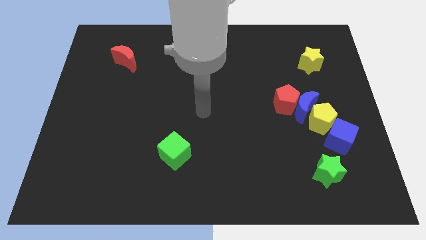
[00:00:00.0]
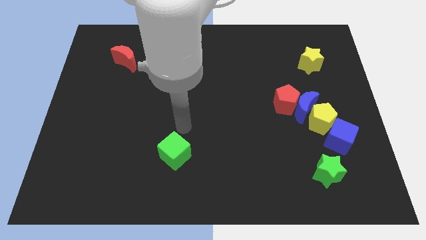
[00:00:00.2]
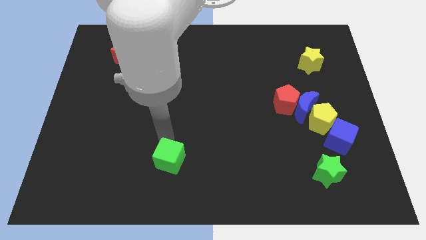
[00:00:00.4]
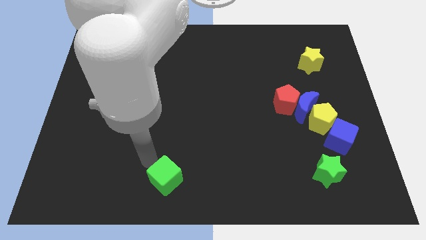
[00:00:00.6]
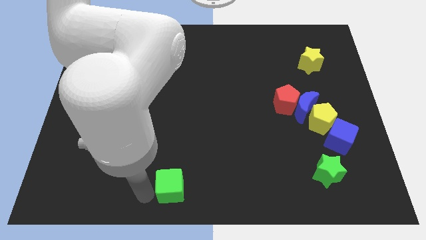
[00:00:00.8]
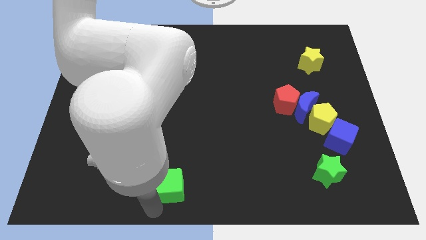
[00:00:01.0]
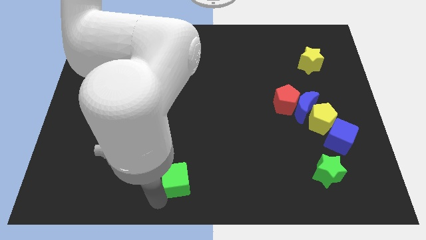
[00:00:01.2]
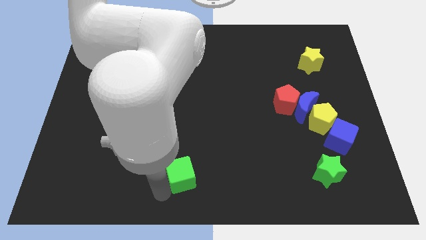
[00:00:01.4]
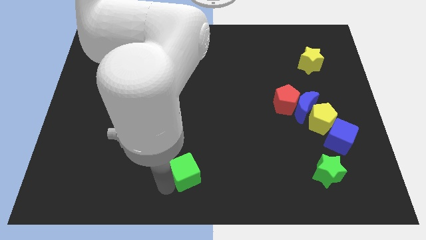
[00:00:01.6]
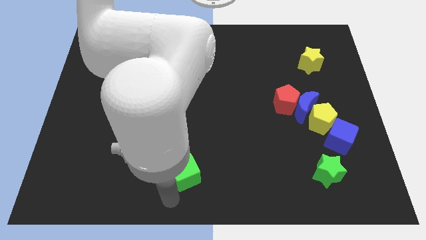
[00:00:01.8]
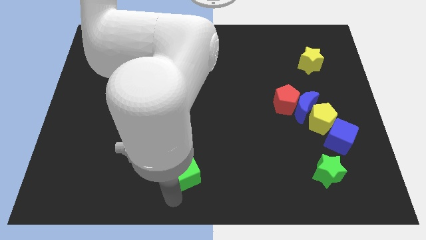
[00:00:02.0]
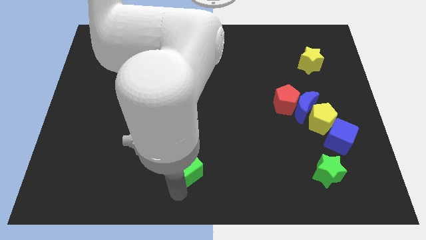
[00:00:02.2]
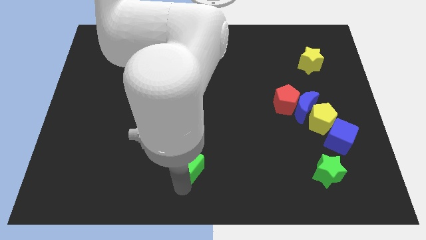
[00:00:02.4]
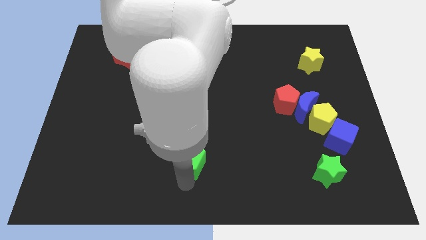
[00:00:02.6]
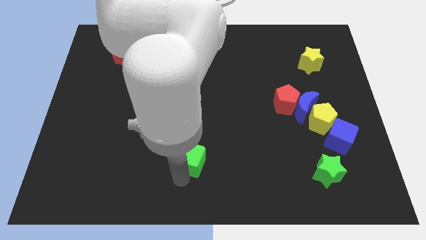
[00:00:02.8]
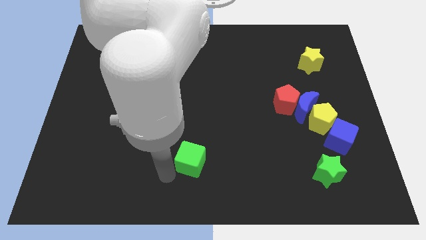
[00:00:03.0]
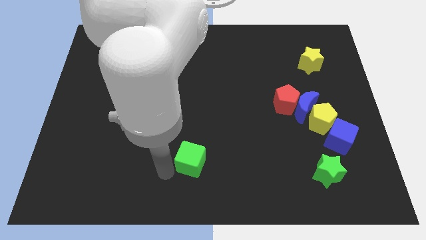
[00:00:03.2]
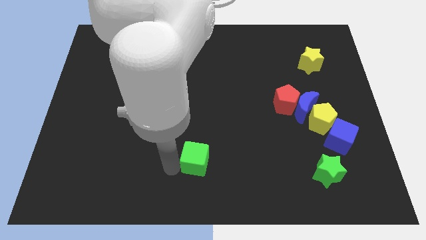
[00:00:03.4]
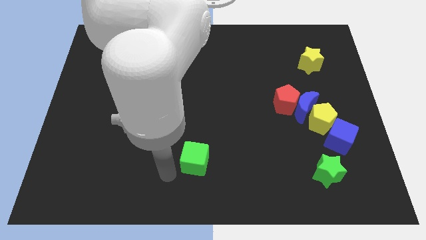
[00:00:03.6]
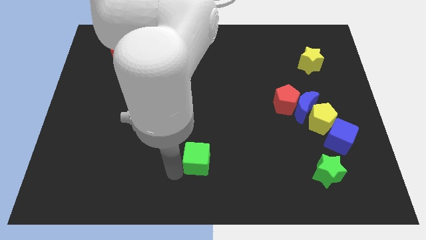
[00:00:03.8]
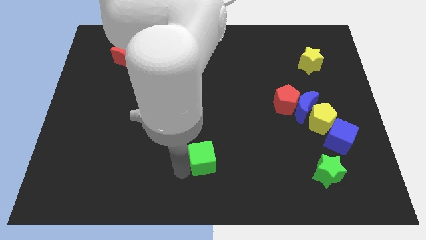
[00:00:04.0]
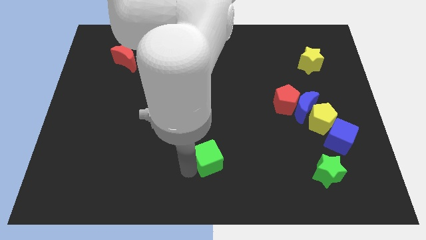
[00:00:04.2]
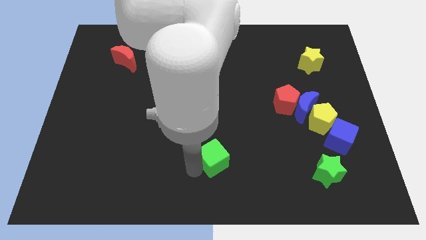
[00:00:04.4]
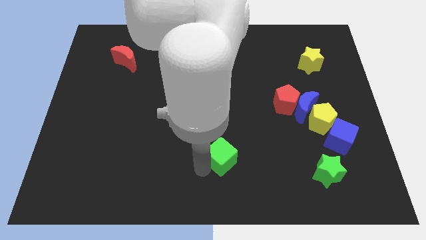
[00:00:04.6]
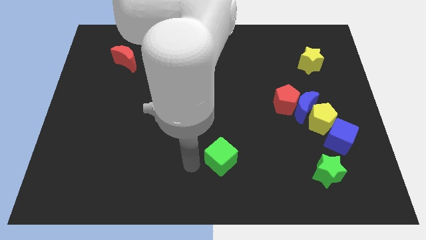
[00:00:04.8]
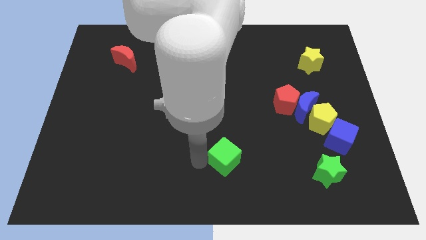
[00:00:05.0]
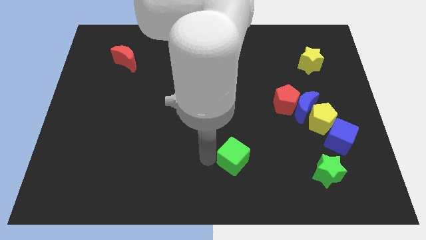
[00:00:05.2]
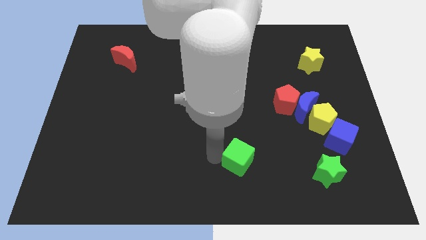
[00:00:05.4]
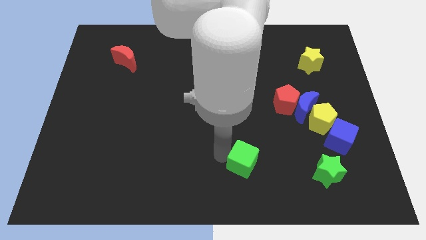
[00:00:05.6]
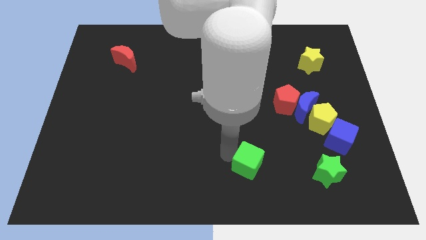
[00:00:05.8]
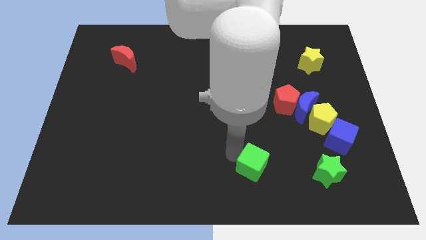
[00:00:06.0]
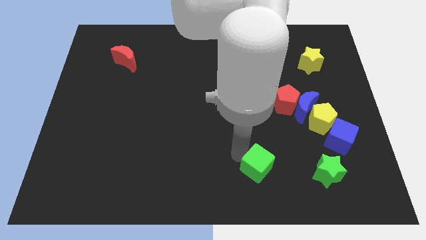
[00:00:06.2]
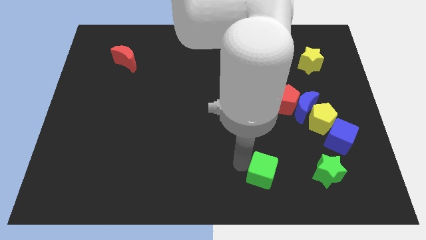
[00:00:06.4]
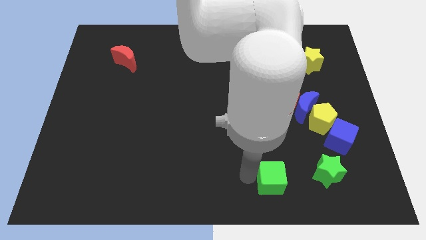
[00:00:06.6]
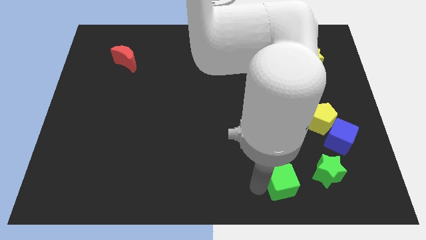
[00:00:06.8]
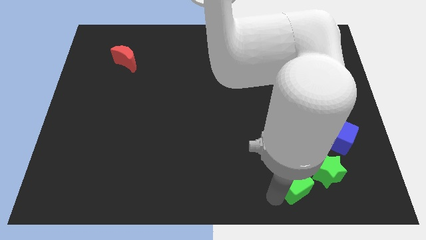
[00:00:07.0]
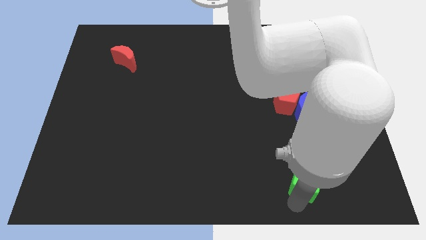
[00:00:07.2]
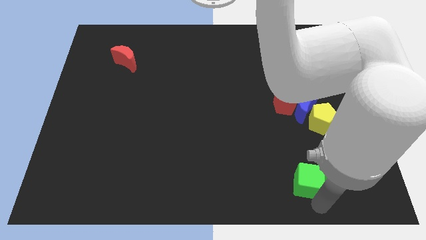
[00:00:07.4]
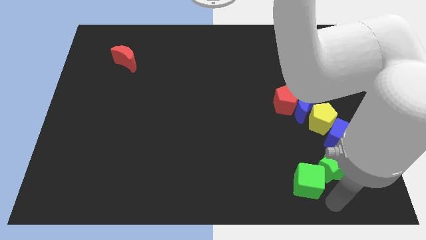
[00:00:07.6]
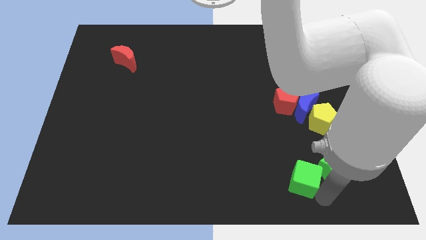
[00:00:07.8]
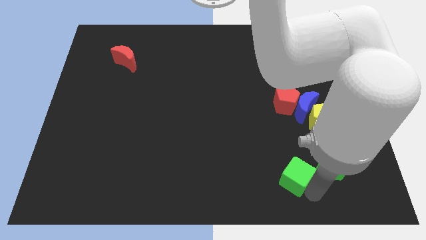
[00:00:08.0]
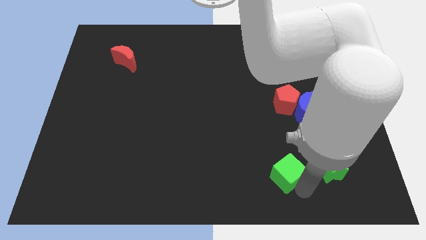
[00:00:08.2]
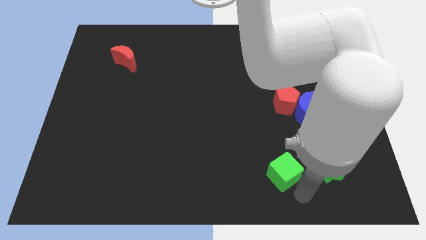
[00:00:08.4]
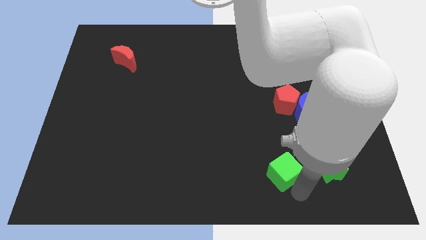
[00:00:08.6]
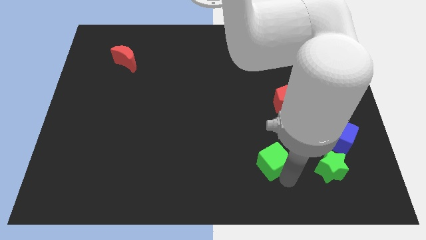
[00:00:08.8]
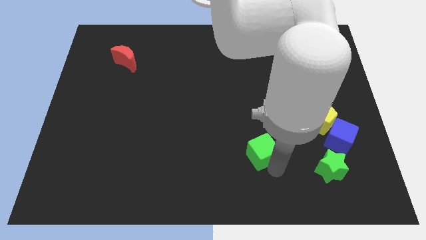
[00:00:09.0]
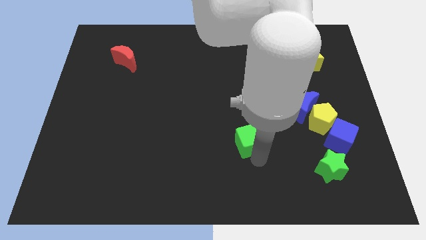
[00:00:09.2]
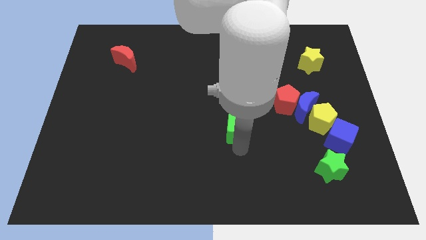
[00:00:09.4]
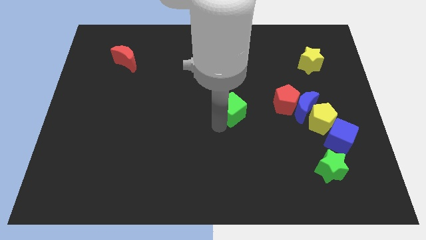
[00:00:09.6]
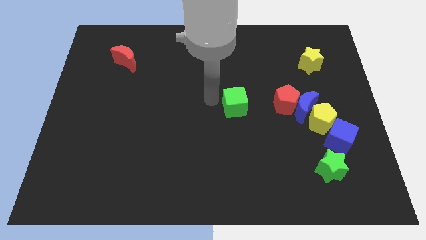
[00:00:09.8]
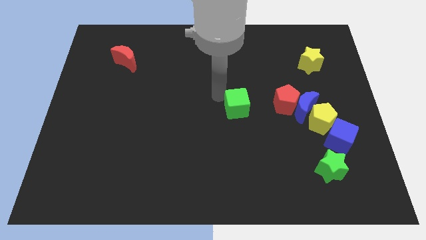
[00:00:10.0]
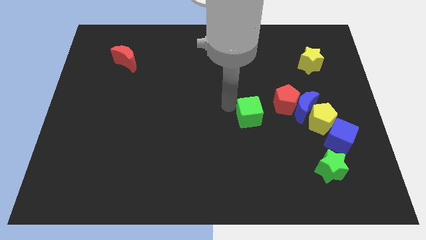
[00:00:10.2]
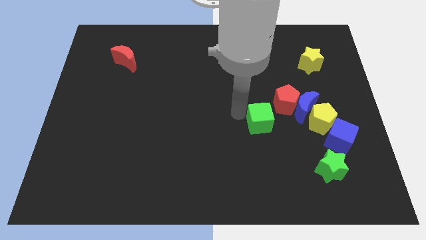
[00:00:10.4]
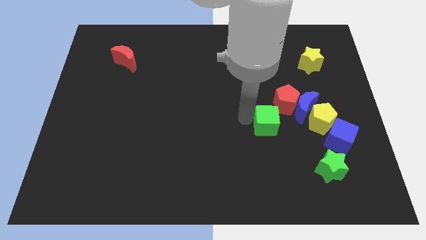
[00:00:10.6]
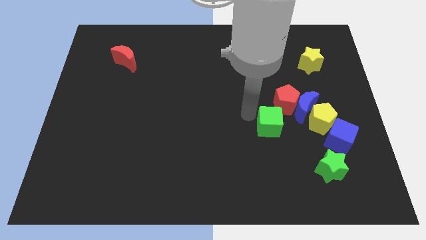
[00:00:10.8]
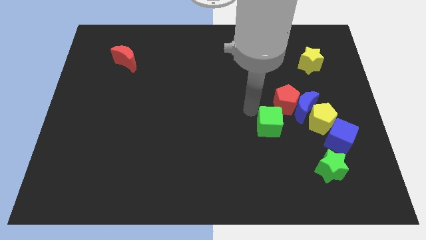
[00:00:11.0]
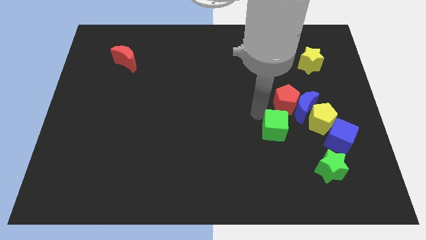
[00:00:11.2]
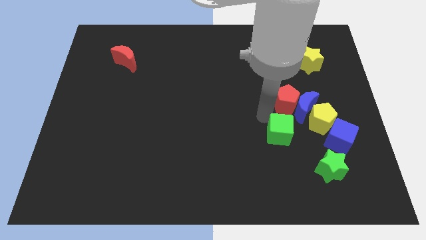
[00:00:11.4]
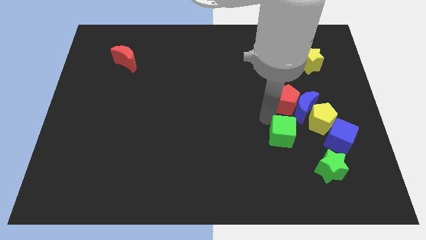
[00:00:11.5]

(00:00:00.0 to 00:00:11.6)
move the green cube to the top left of the green star

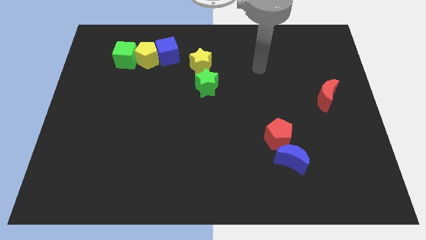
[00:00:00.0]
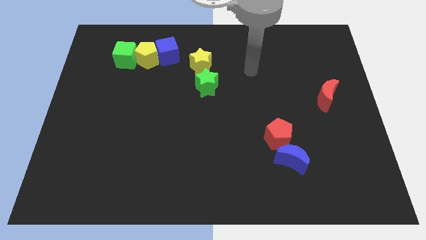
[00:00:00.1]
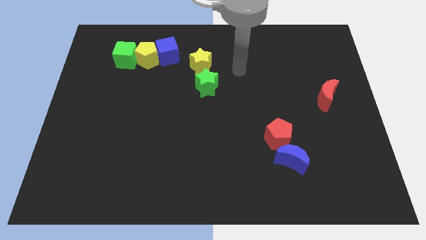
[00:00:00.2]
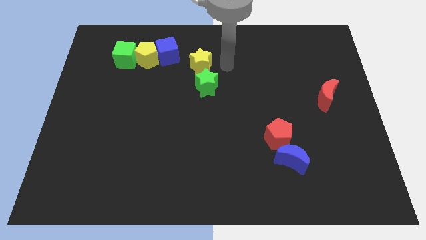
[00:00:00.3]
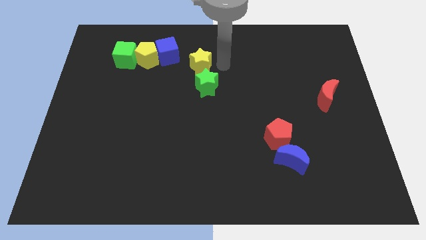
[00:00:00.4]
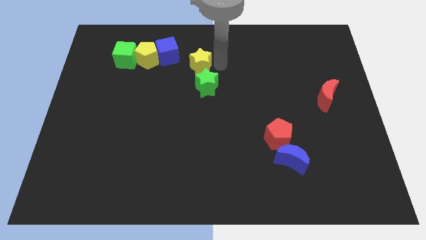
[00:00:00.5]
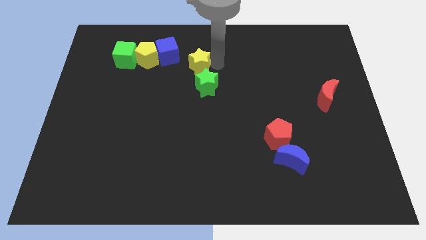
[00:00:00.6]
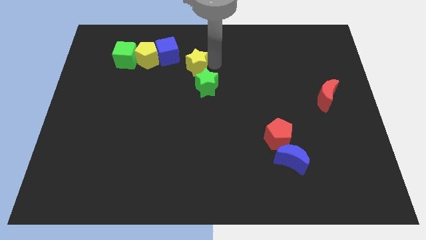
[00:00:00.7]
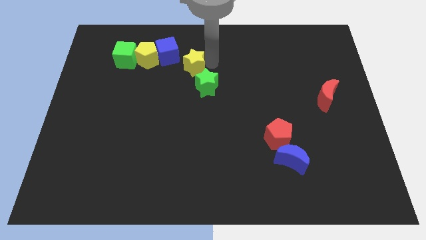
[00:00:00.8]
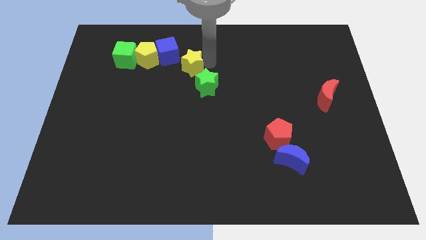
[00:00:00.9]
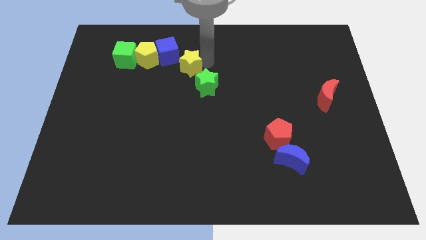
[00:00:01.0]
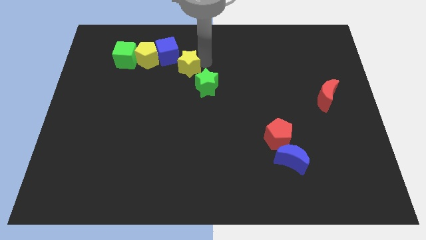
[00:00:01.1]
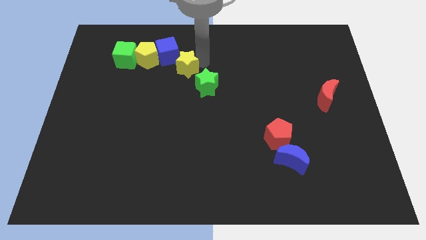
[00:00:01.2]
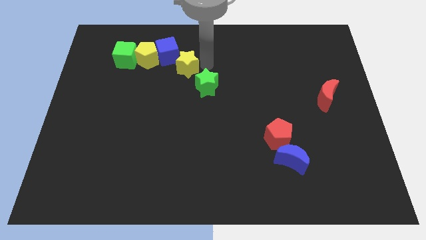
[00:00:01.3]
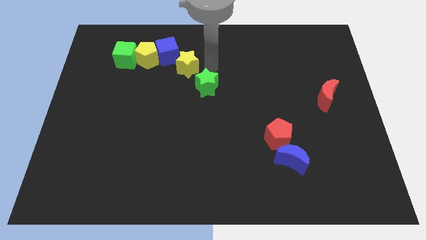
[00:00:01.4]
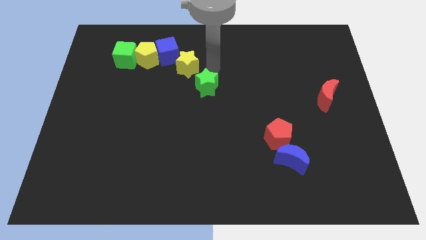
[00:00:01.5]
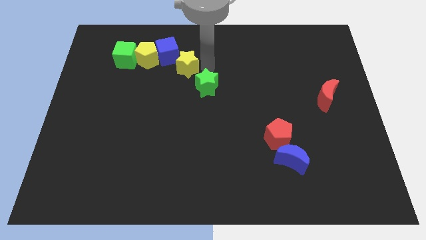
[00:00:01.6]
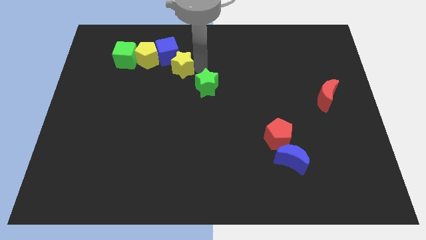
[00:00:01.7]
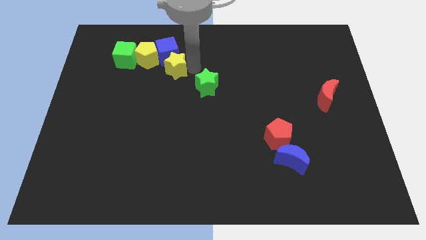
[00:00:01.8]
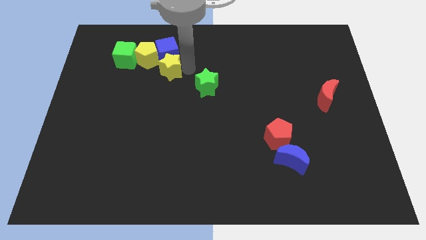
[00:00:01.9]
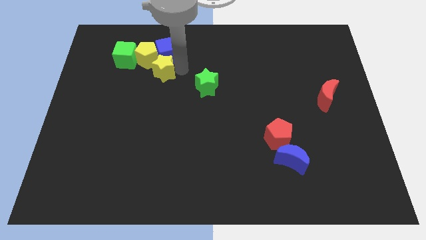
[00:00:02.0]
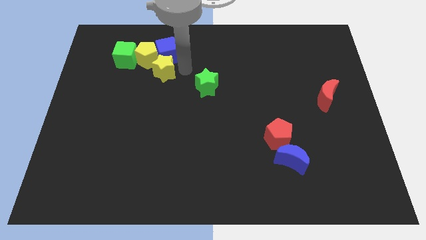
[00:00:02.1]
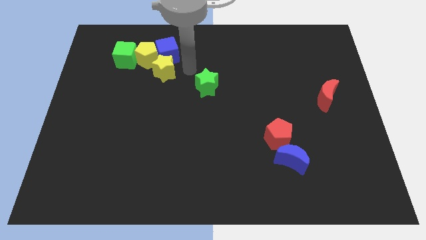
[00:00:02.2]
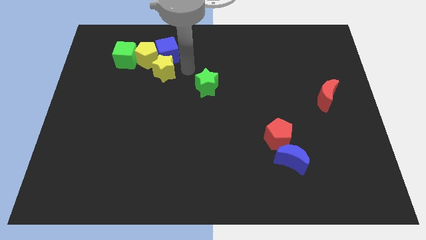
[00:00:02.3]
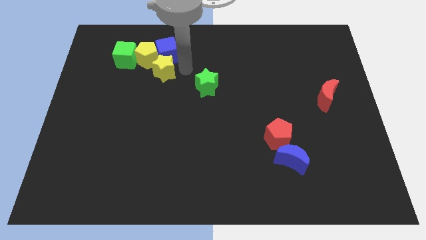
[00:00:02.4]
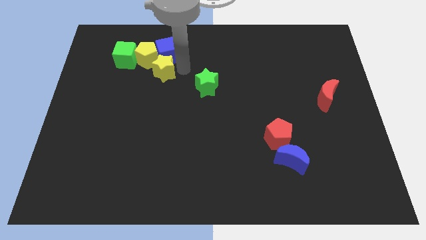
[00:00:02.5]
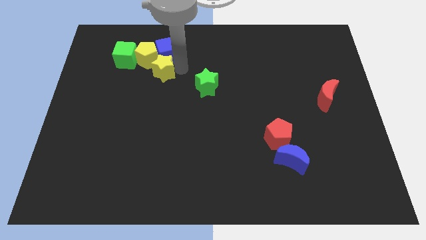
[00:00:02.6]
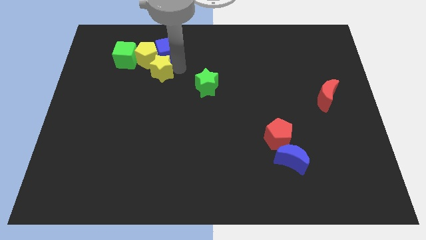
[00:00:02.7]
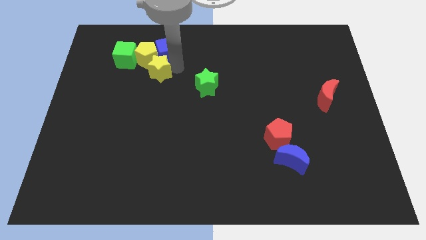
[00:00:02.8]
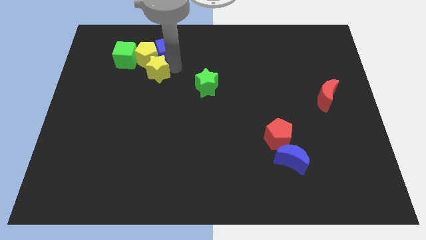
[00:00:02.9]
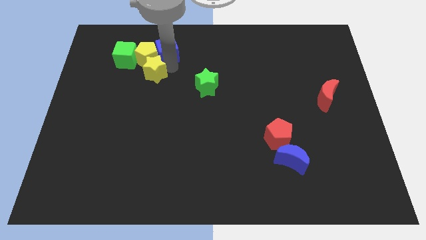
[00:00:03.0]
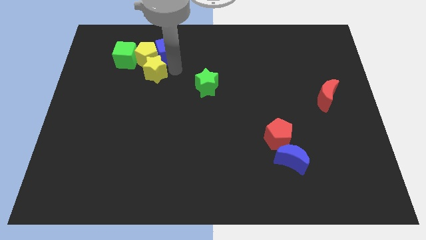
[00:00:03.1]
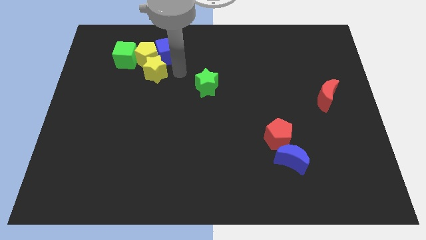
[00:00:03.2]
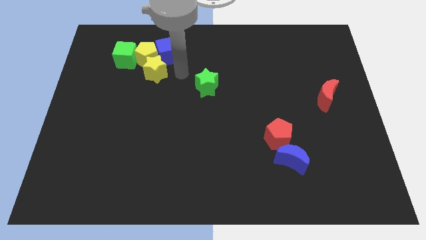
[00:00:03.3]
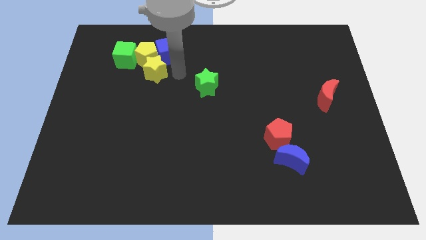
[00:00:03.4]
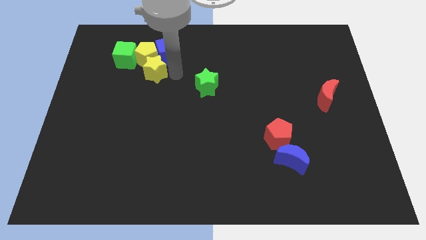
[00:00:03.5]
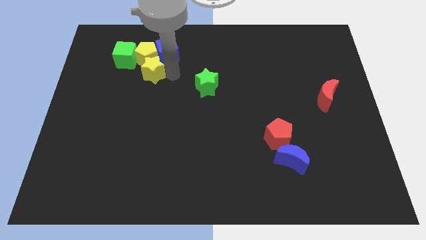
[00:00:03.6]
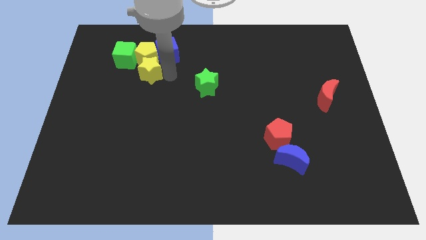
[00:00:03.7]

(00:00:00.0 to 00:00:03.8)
put the yellow star to the bottom left side of the yellow pentagon
